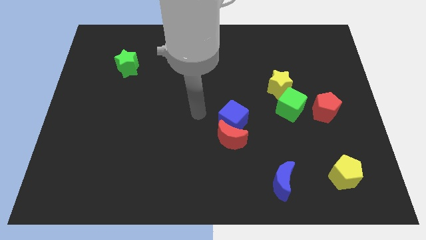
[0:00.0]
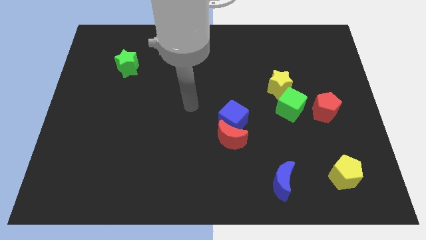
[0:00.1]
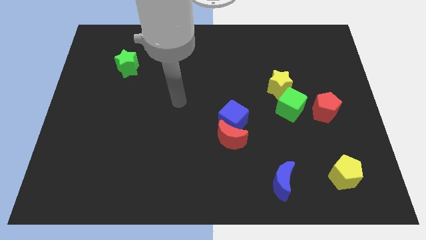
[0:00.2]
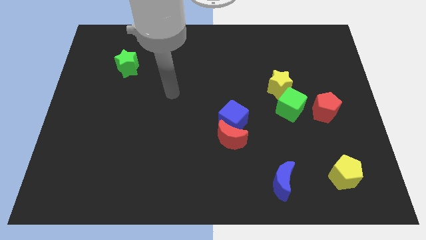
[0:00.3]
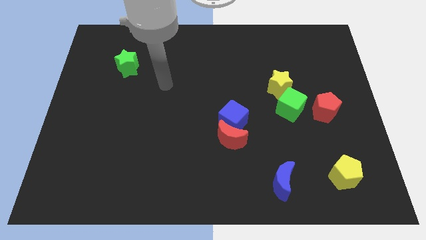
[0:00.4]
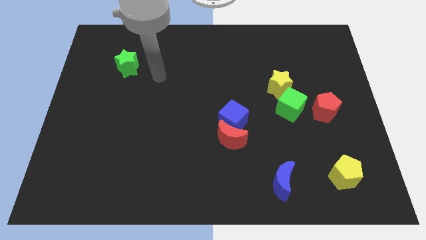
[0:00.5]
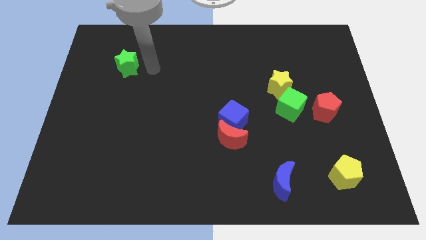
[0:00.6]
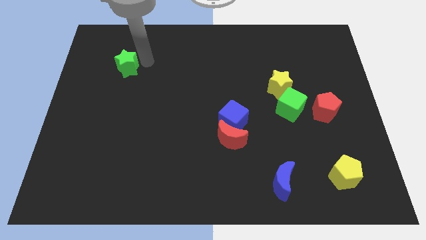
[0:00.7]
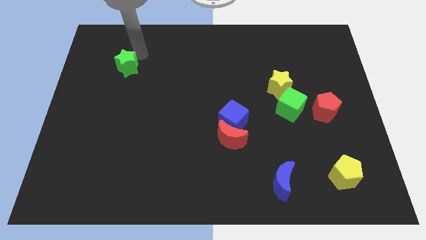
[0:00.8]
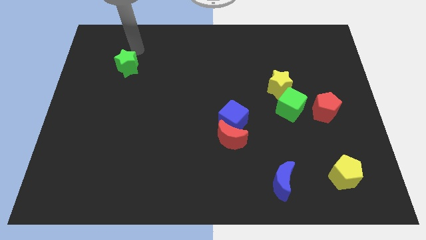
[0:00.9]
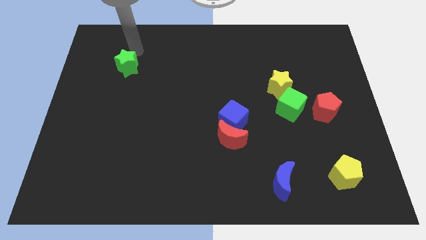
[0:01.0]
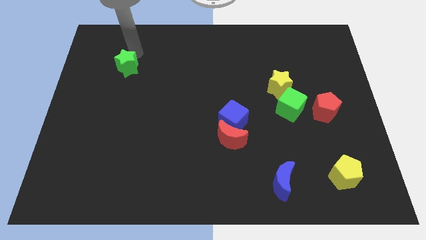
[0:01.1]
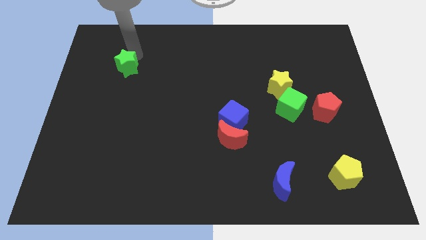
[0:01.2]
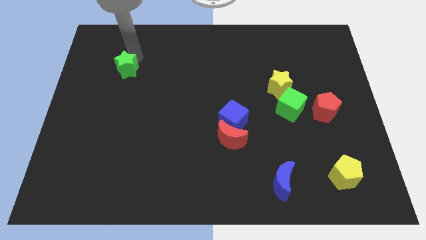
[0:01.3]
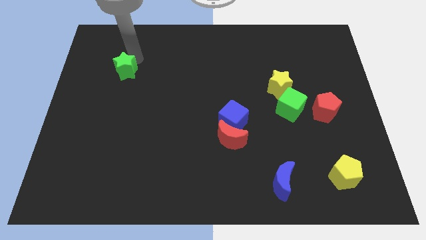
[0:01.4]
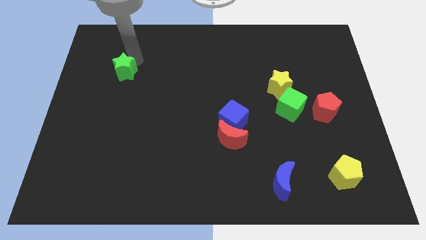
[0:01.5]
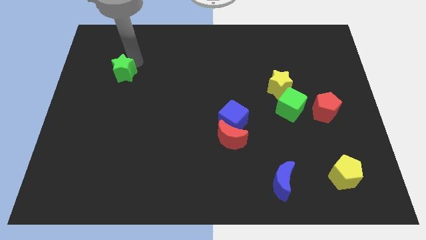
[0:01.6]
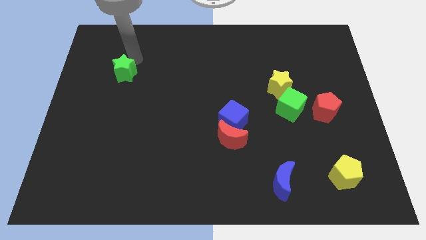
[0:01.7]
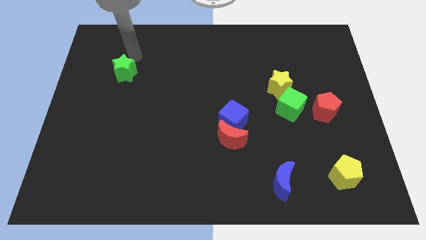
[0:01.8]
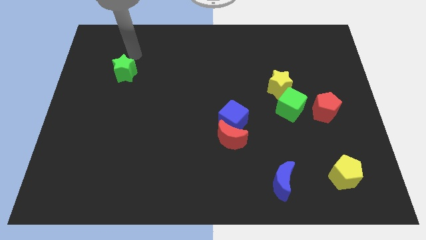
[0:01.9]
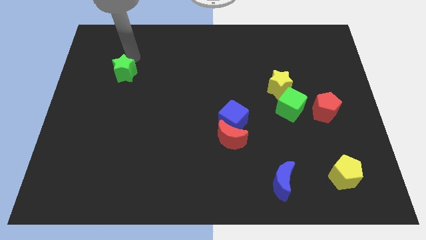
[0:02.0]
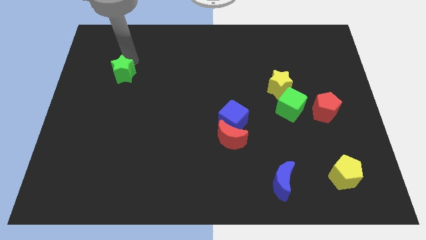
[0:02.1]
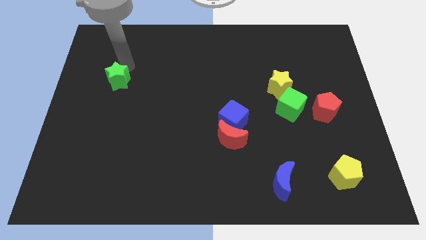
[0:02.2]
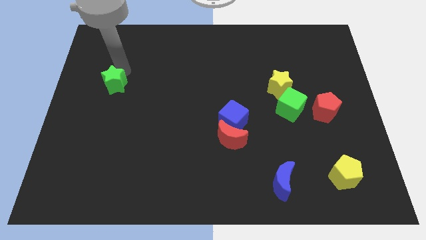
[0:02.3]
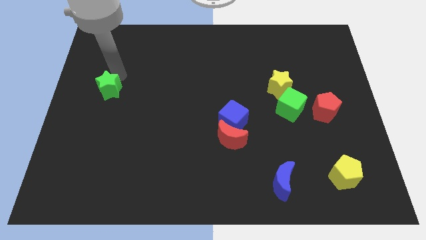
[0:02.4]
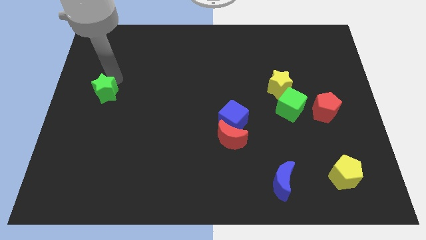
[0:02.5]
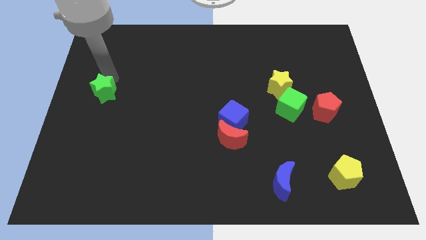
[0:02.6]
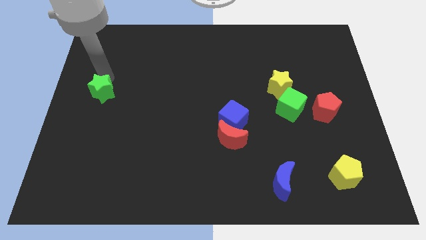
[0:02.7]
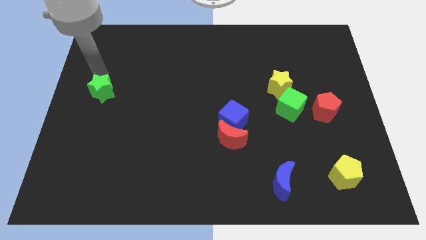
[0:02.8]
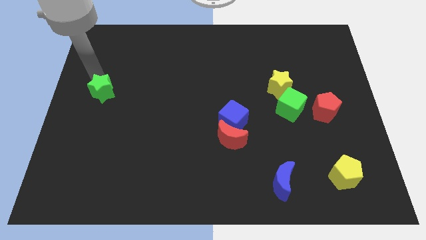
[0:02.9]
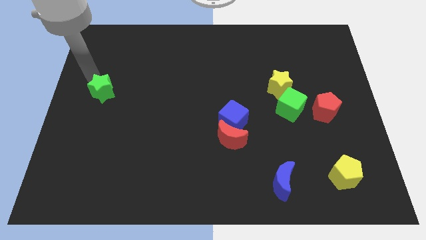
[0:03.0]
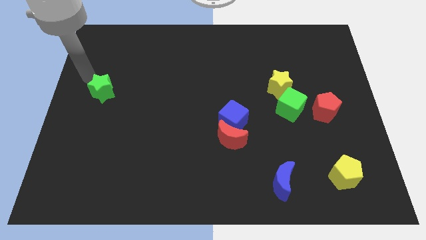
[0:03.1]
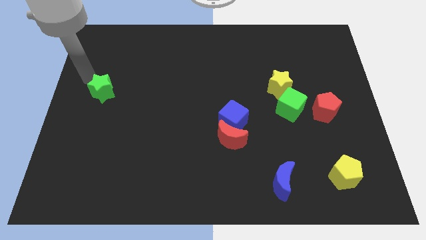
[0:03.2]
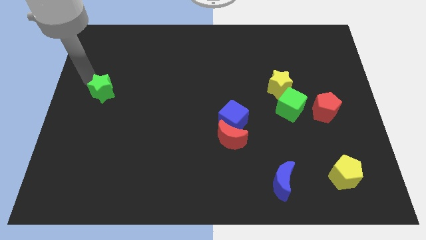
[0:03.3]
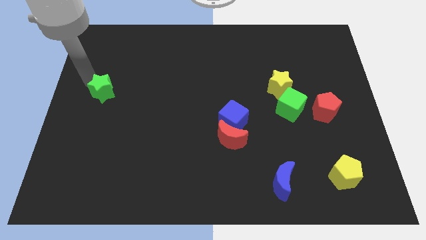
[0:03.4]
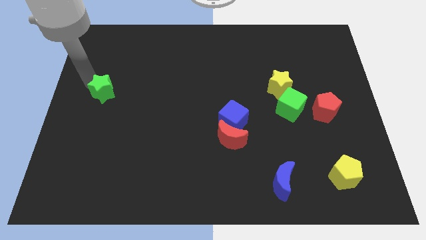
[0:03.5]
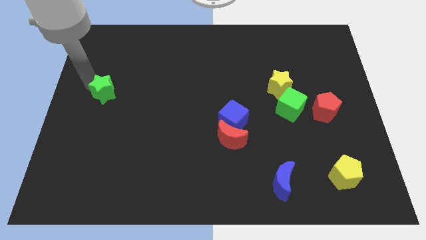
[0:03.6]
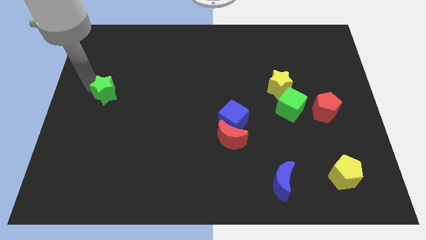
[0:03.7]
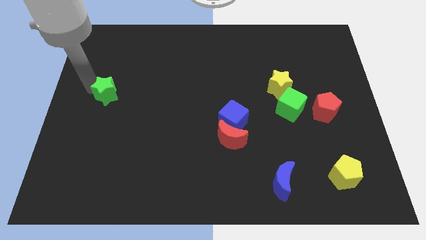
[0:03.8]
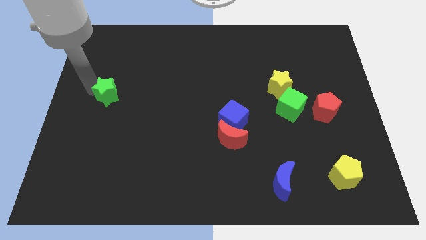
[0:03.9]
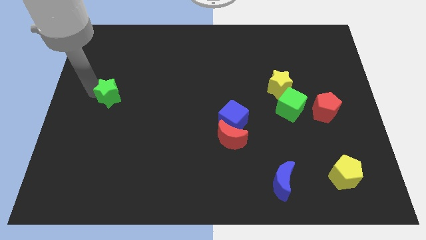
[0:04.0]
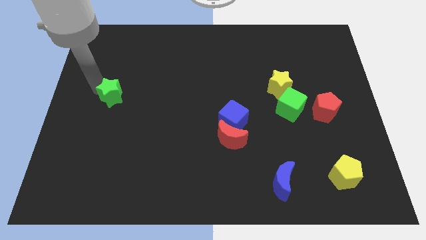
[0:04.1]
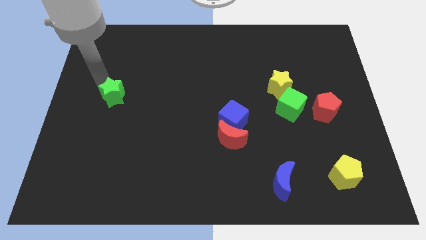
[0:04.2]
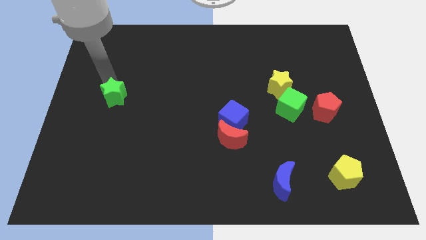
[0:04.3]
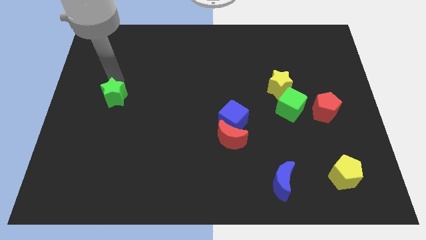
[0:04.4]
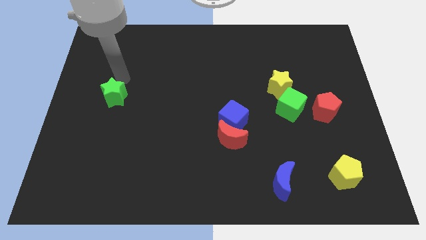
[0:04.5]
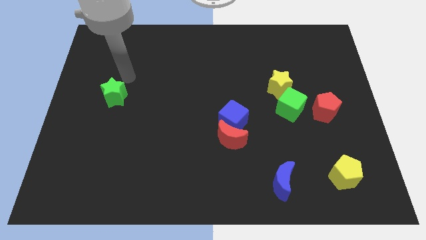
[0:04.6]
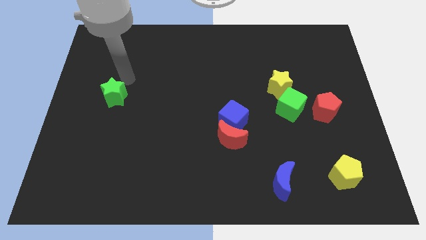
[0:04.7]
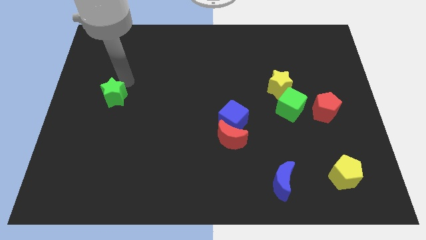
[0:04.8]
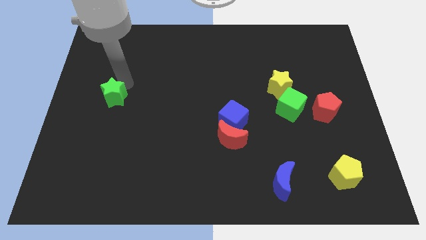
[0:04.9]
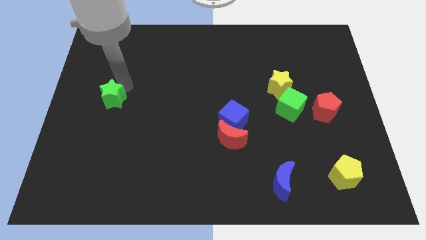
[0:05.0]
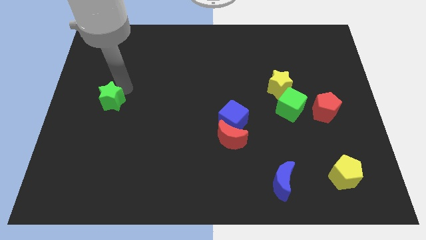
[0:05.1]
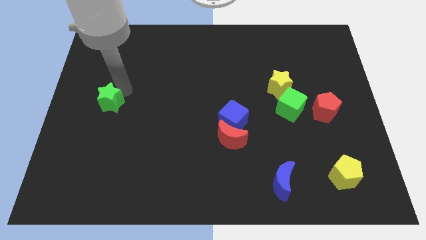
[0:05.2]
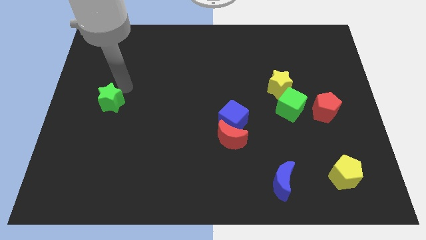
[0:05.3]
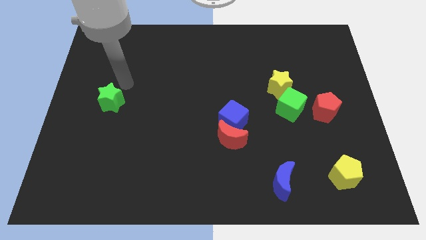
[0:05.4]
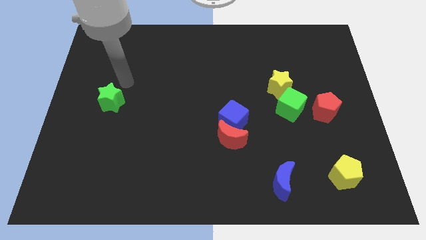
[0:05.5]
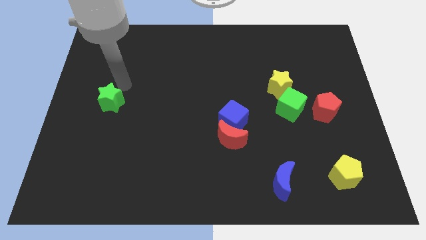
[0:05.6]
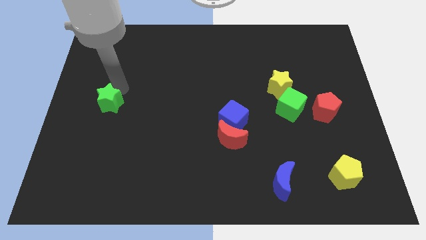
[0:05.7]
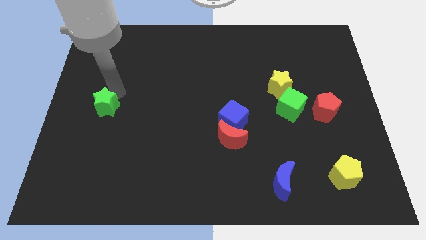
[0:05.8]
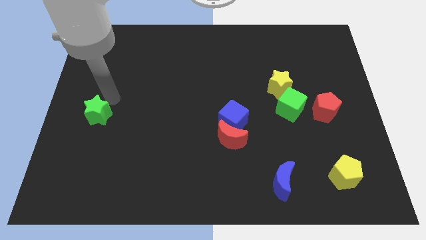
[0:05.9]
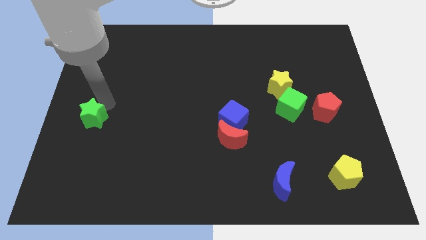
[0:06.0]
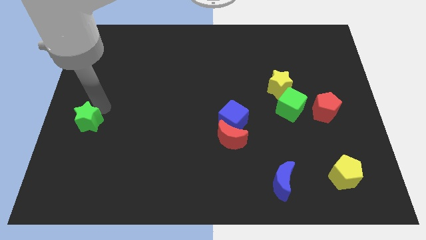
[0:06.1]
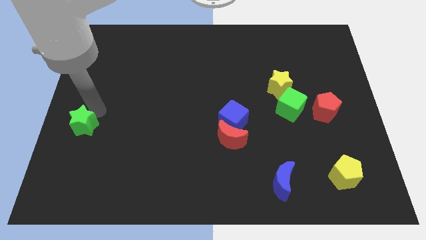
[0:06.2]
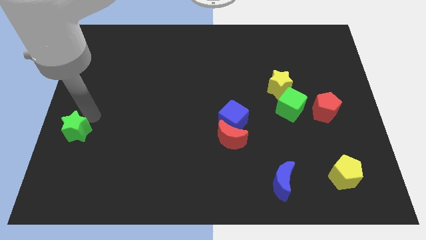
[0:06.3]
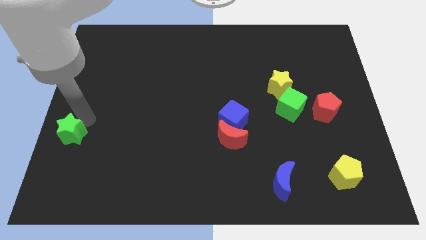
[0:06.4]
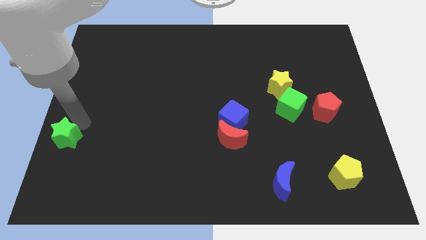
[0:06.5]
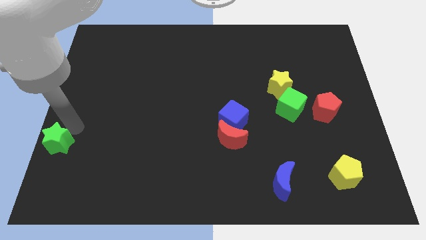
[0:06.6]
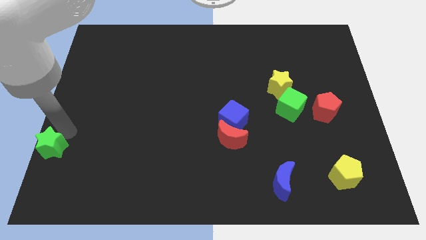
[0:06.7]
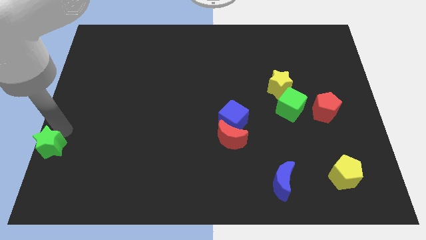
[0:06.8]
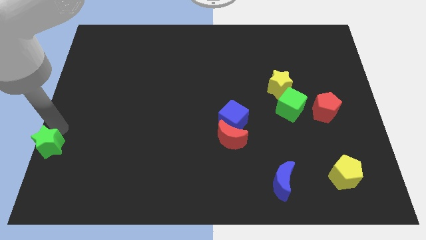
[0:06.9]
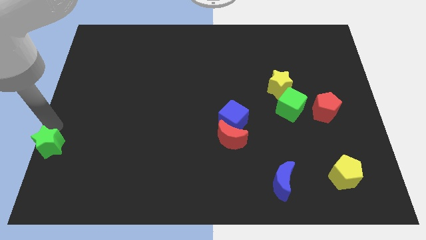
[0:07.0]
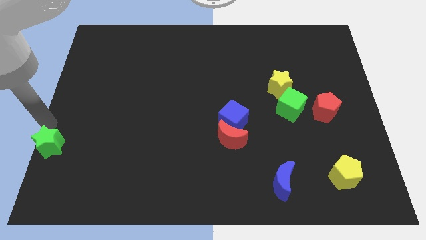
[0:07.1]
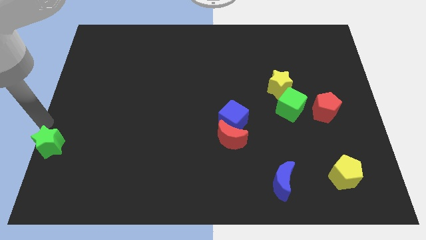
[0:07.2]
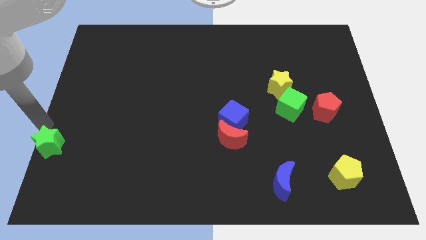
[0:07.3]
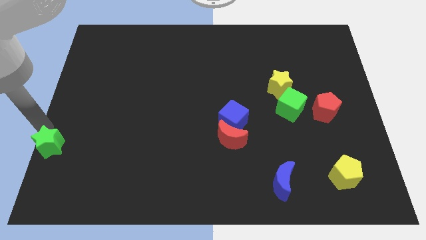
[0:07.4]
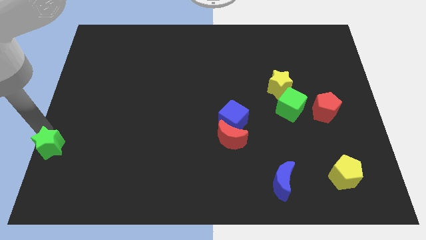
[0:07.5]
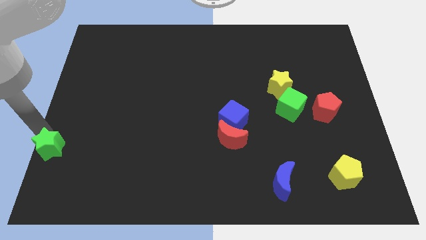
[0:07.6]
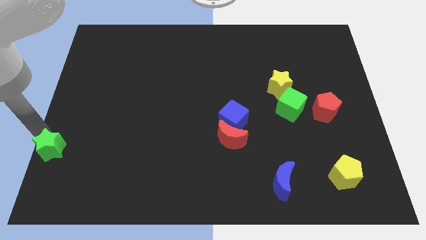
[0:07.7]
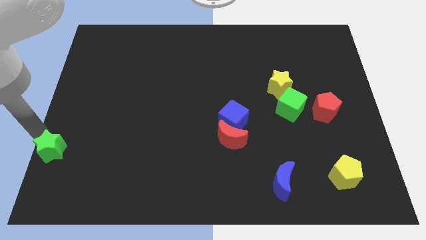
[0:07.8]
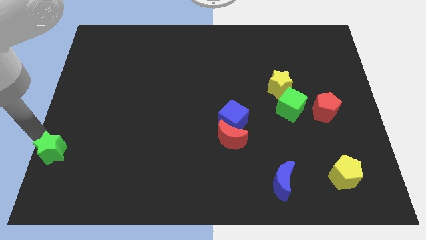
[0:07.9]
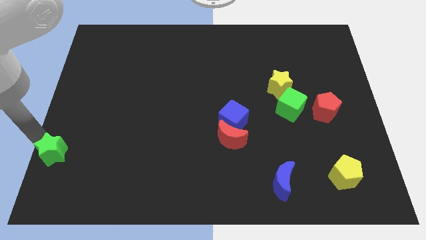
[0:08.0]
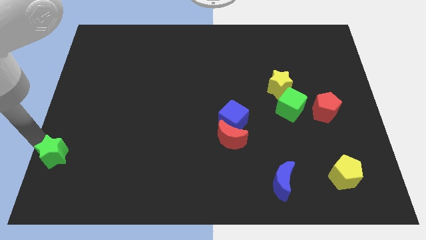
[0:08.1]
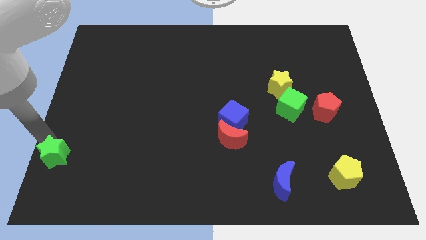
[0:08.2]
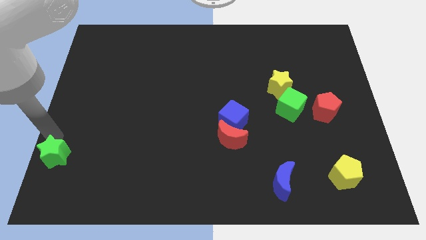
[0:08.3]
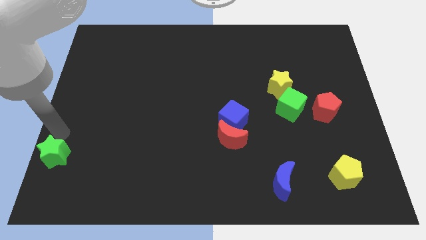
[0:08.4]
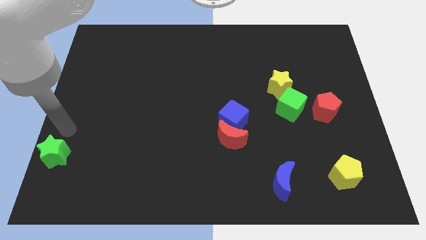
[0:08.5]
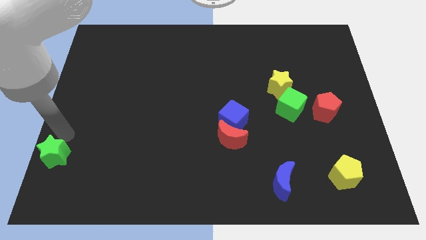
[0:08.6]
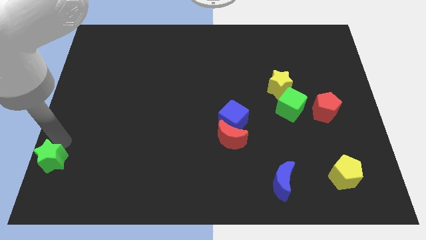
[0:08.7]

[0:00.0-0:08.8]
put the green star to the lower left corner
